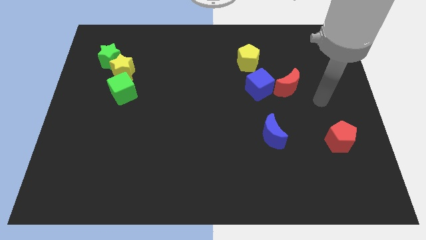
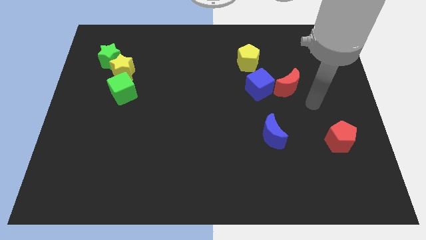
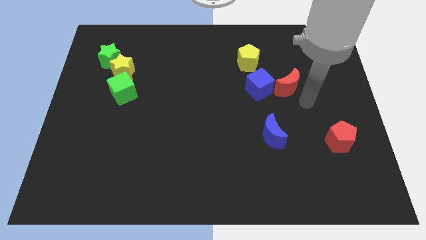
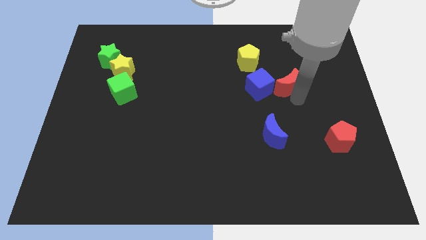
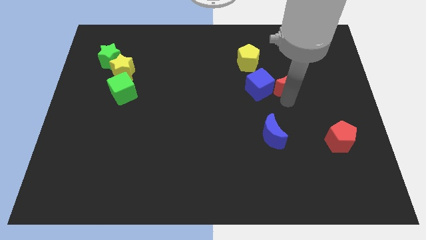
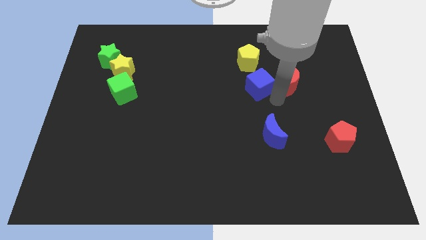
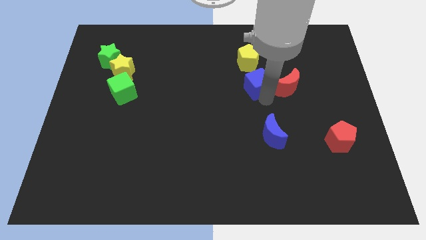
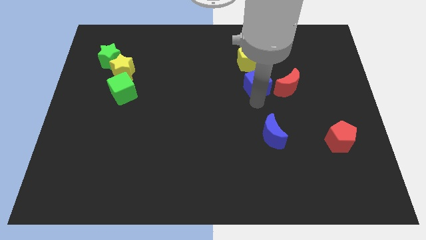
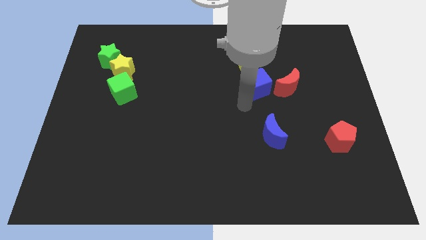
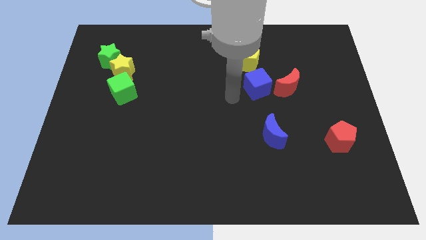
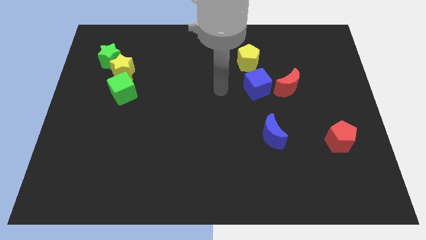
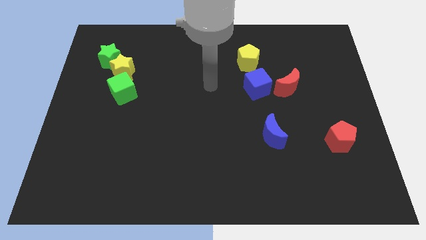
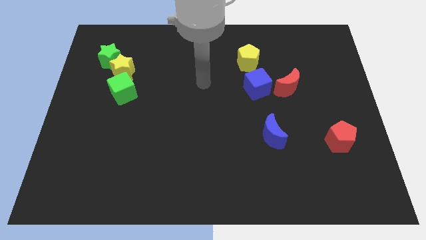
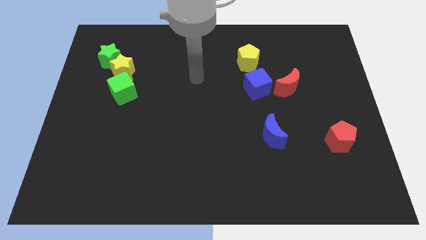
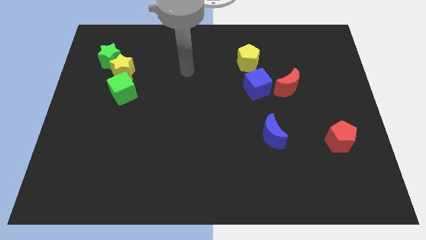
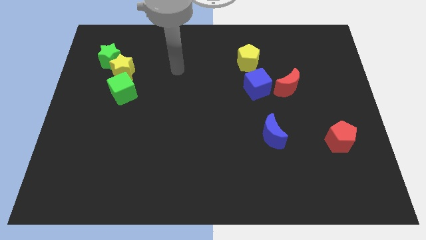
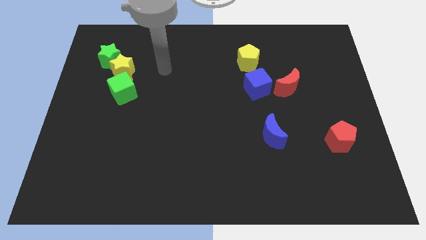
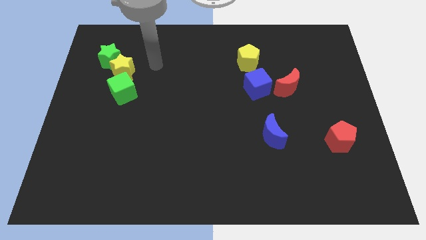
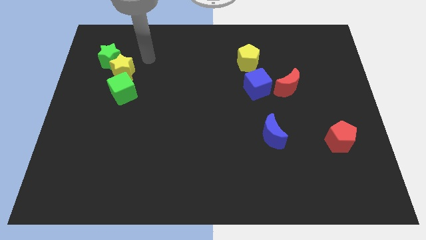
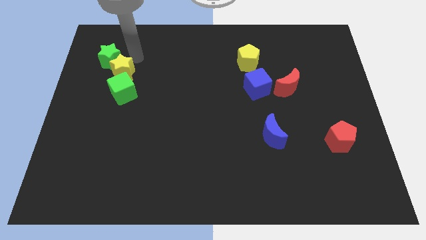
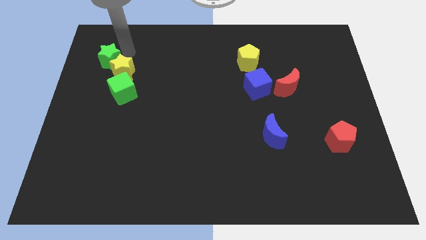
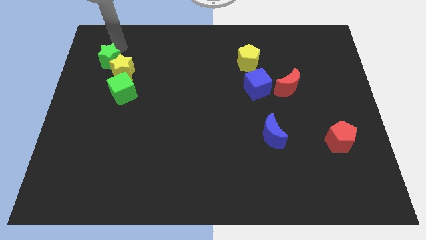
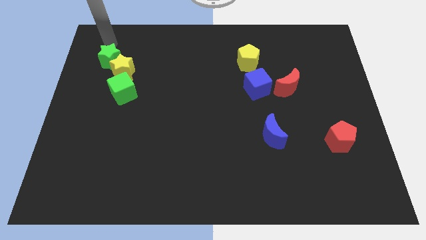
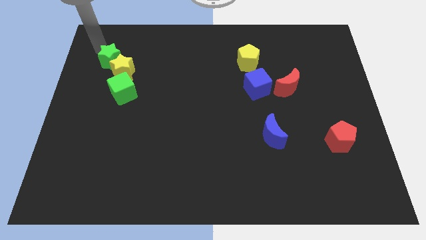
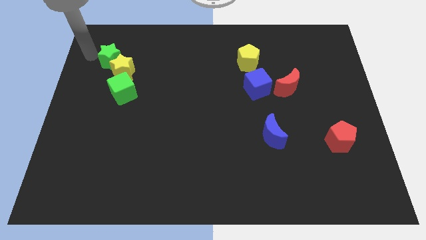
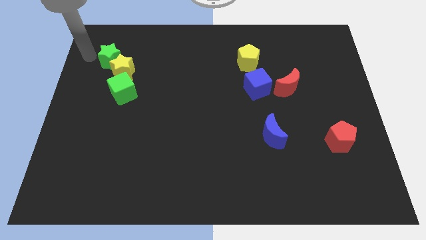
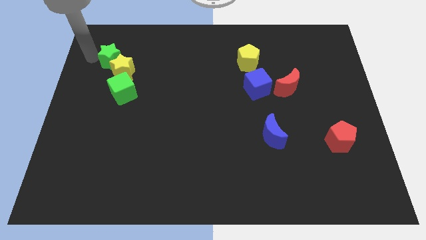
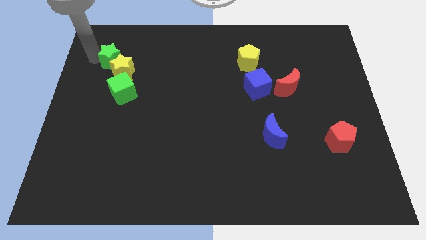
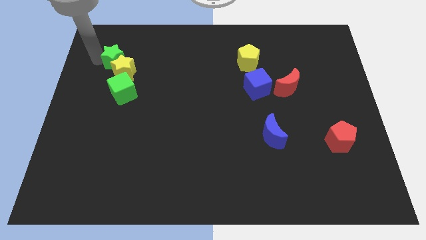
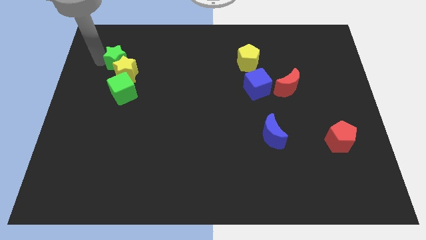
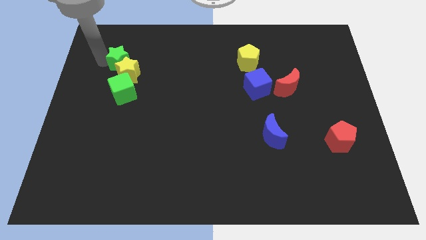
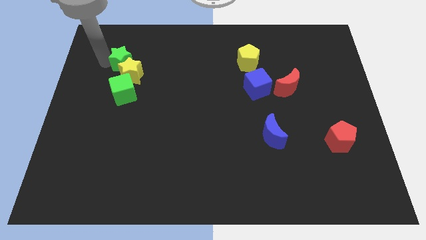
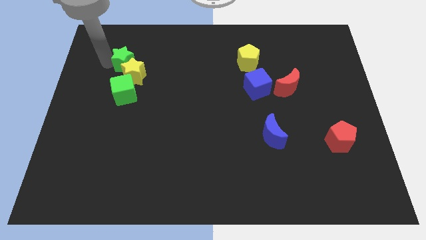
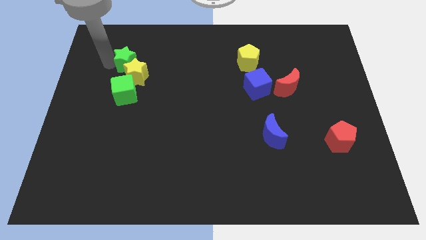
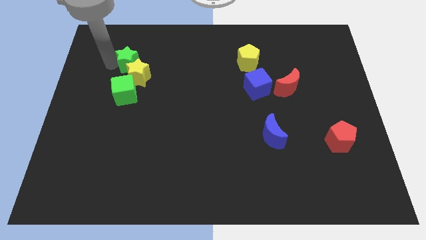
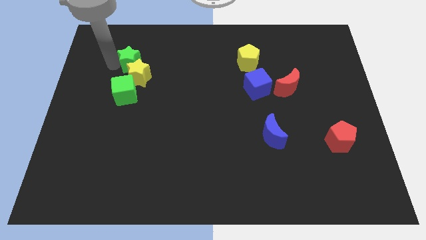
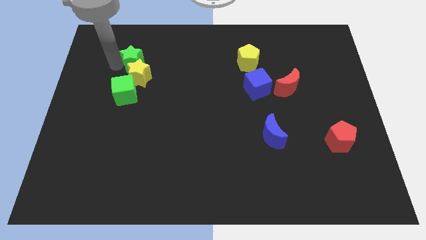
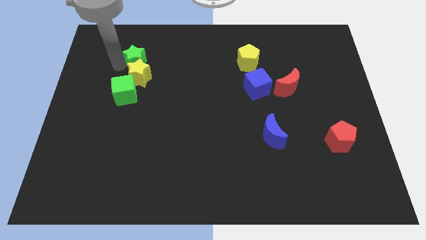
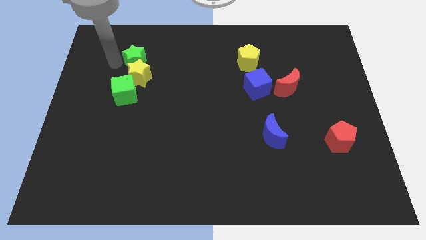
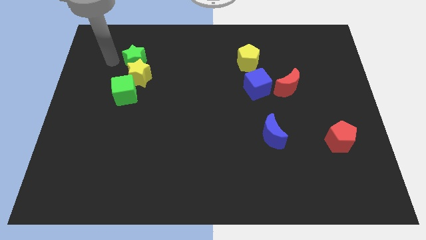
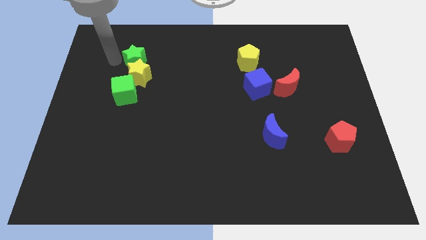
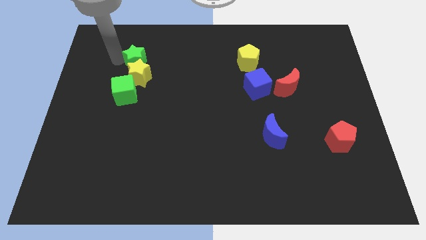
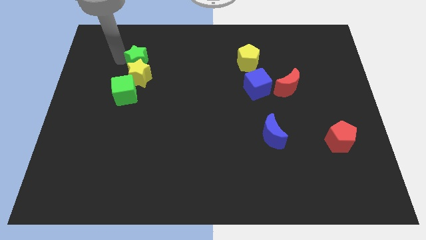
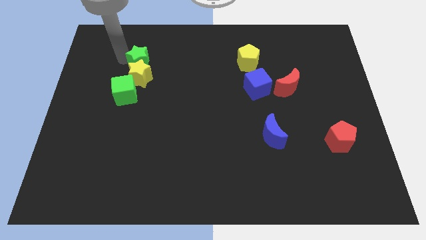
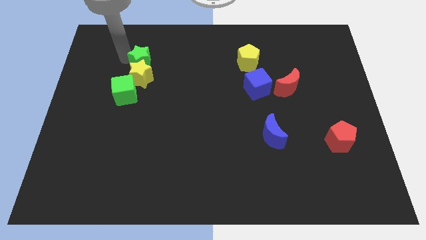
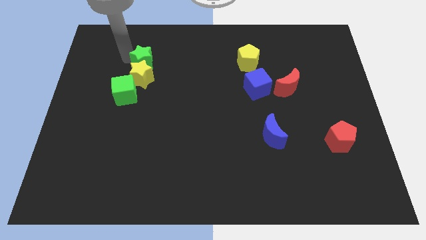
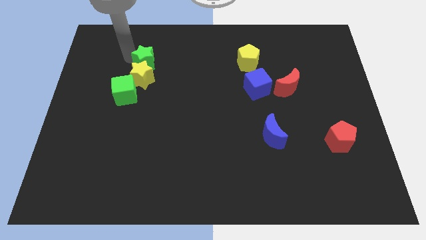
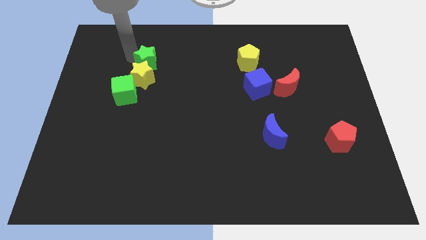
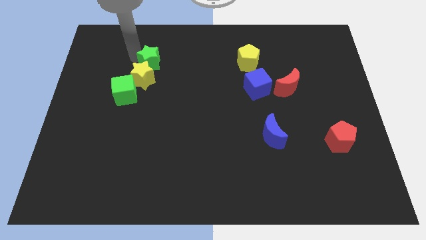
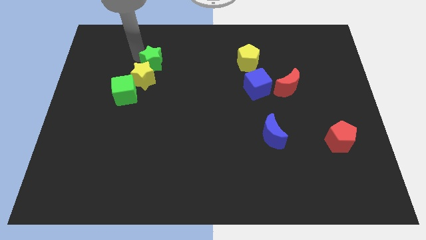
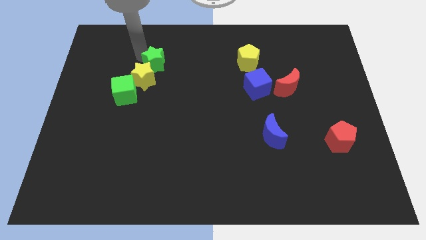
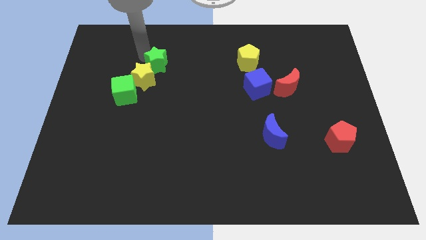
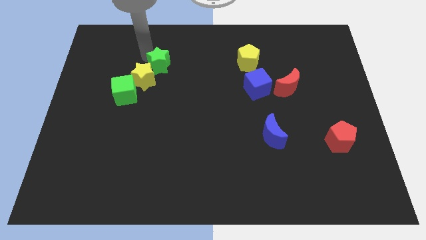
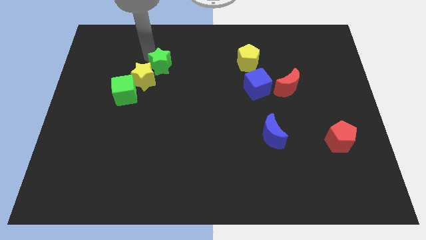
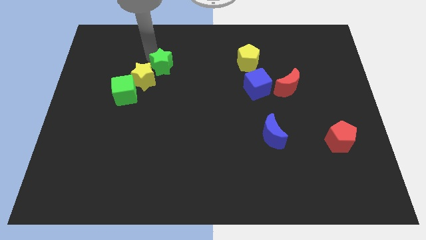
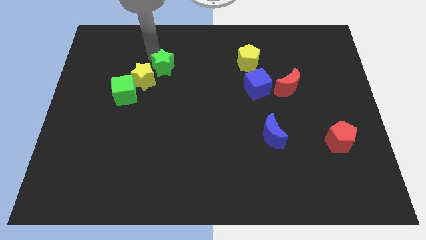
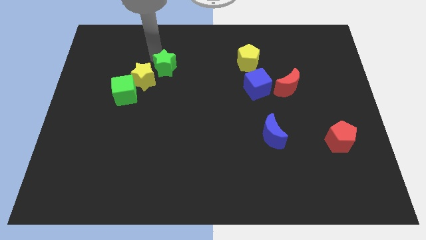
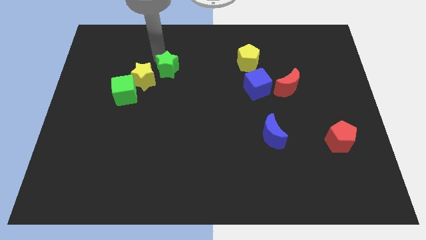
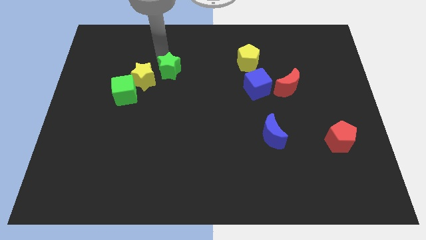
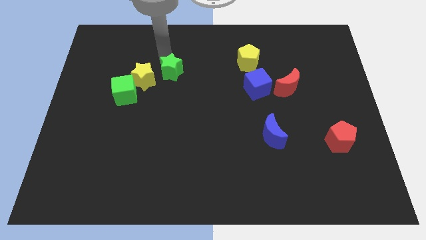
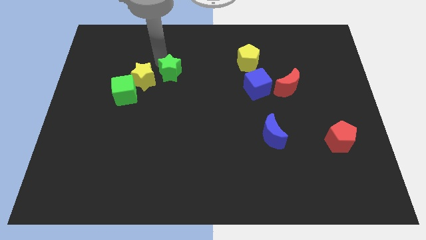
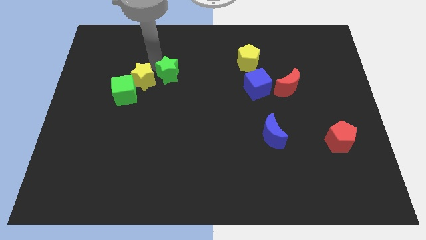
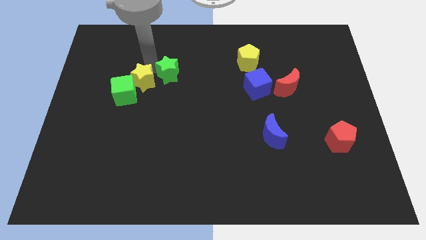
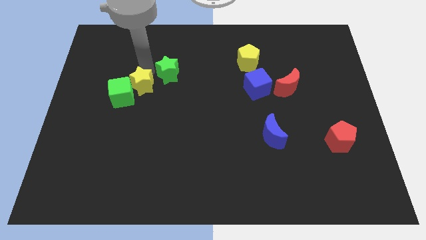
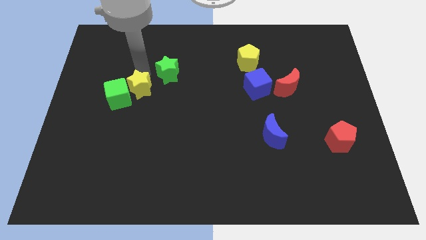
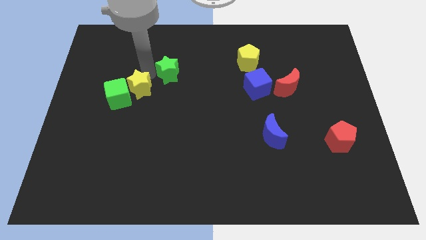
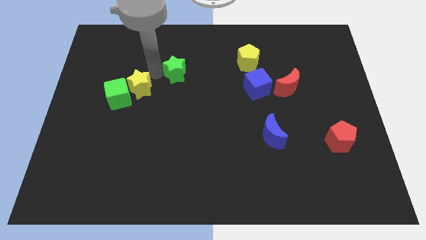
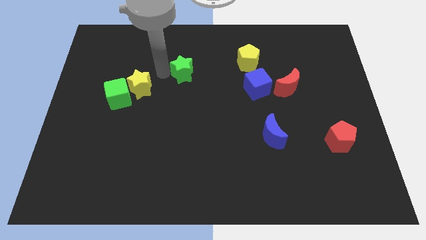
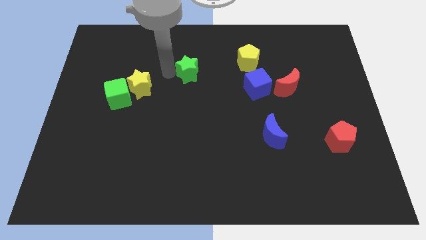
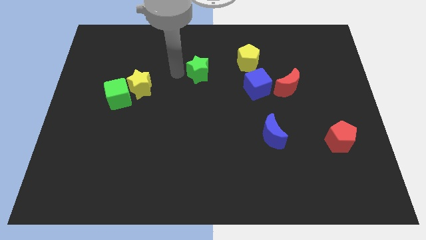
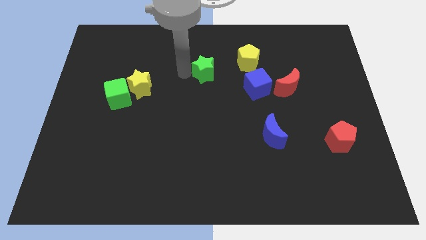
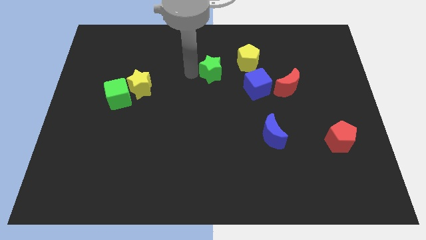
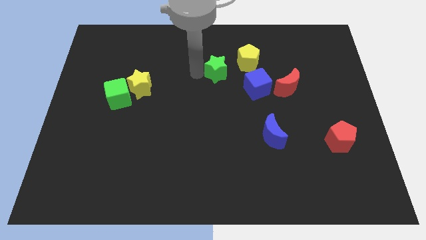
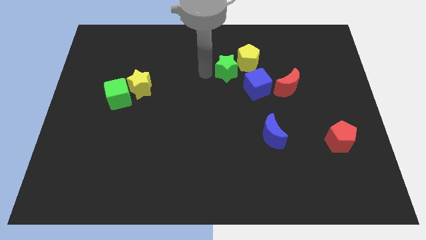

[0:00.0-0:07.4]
slide the green star towards the yellow pentagon

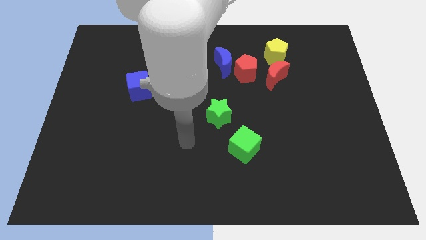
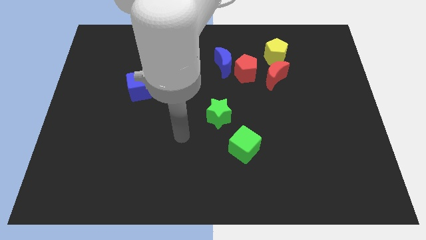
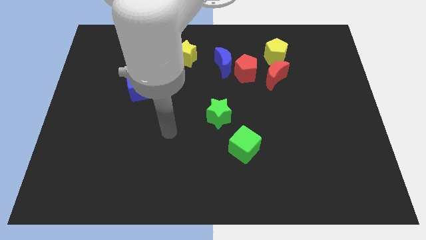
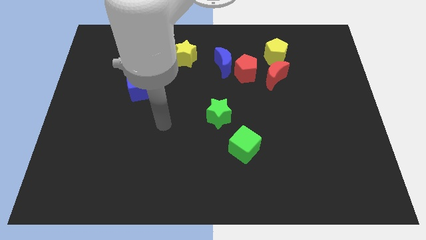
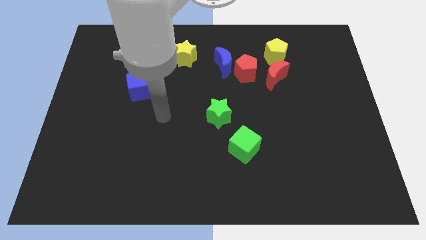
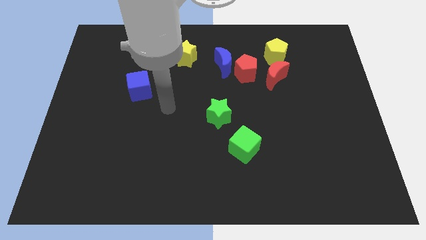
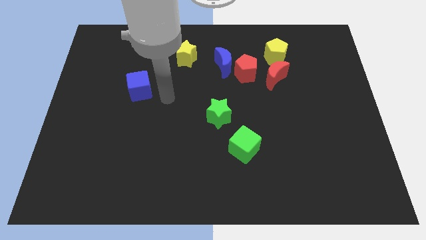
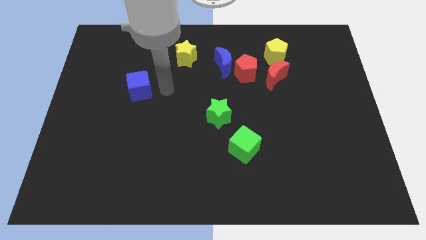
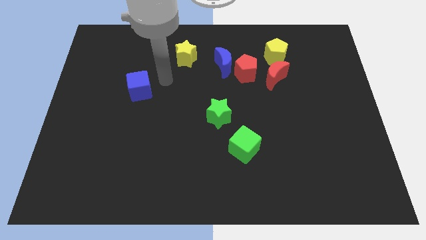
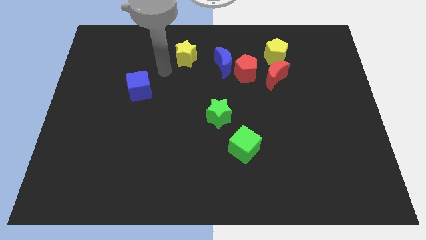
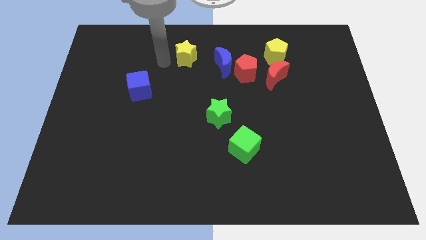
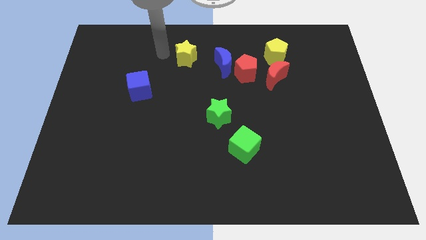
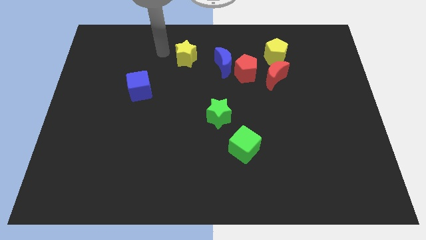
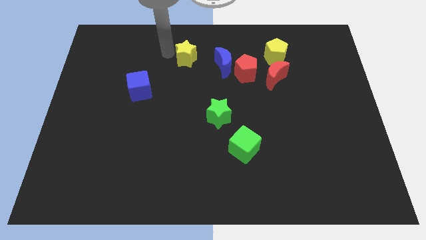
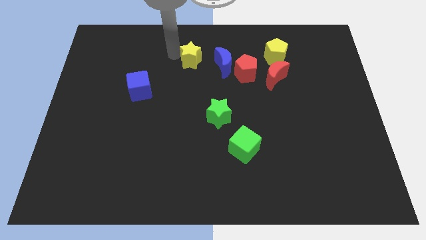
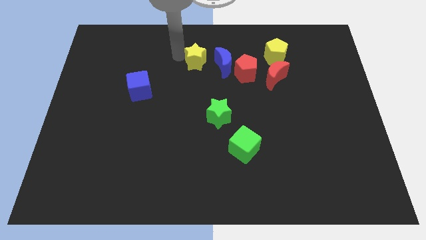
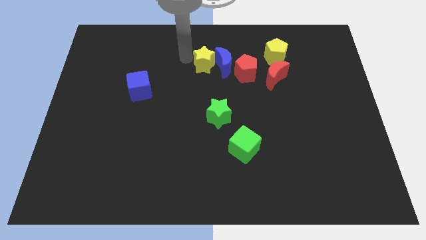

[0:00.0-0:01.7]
push the yellow star next to the blue moon
